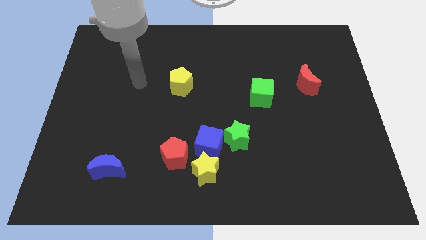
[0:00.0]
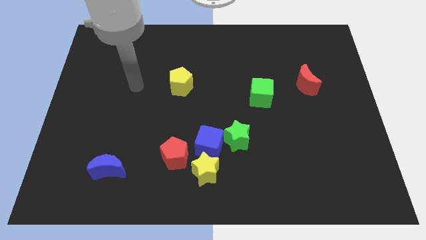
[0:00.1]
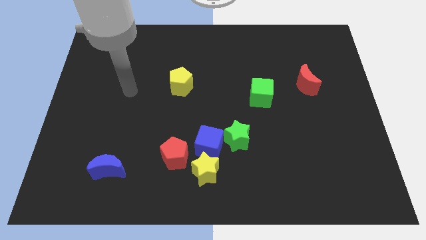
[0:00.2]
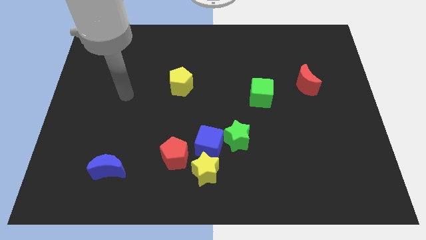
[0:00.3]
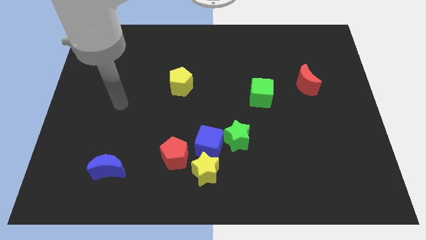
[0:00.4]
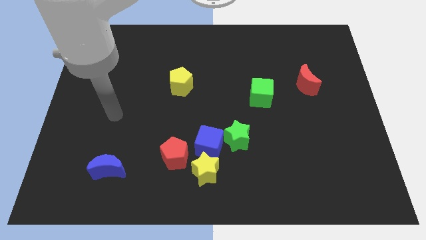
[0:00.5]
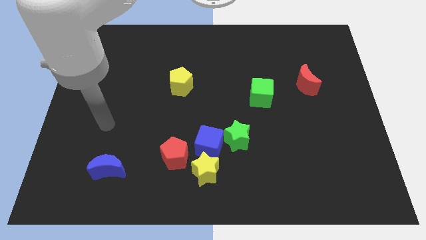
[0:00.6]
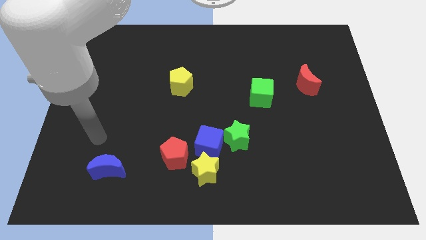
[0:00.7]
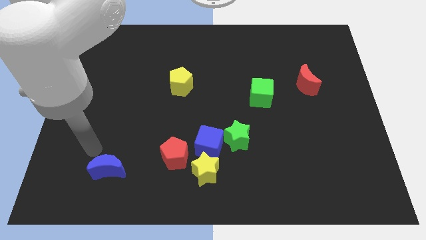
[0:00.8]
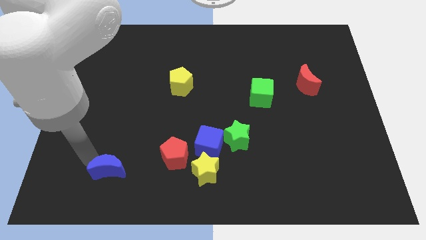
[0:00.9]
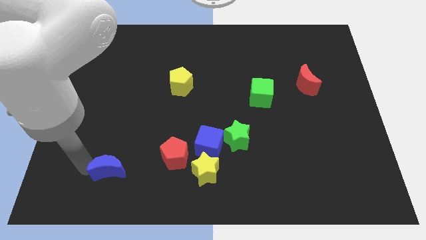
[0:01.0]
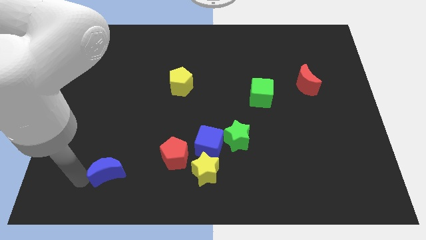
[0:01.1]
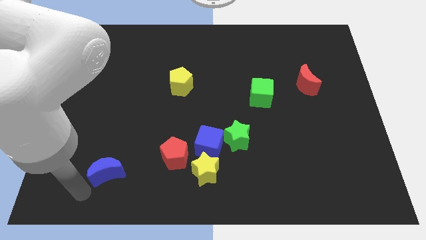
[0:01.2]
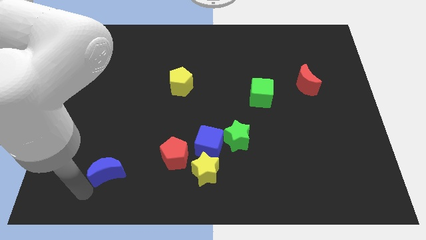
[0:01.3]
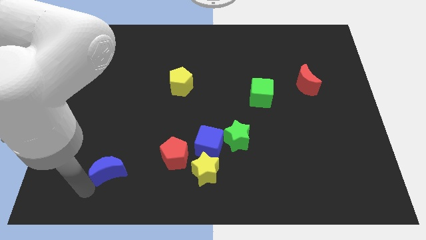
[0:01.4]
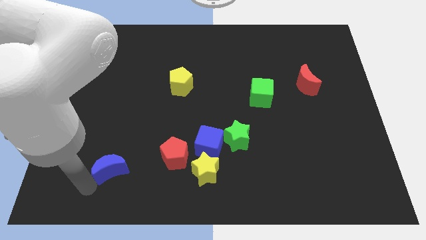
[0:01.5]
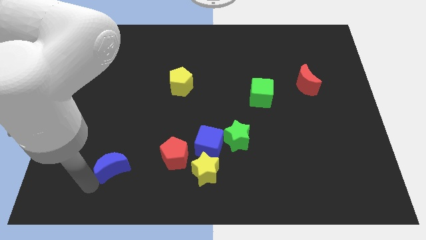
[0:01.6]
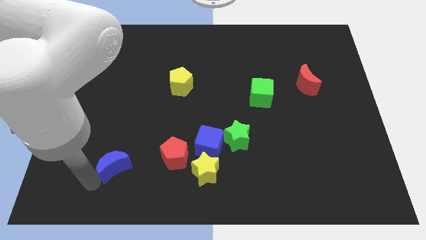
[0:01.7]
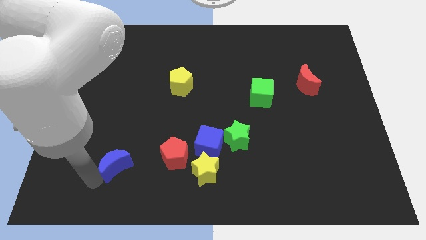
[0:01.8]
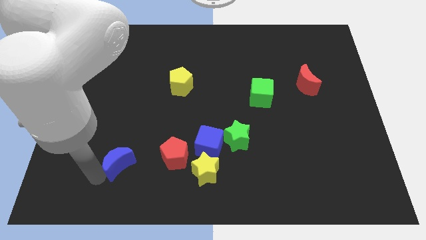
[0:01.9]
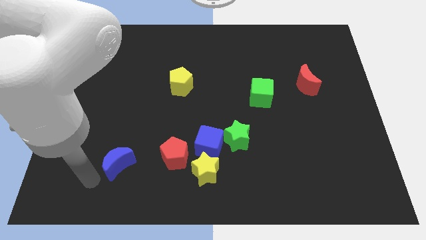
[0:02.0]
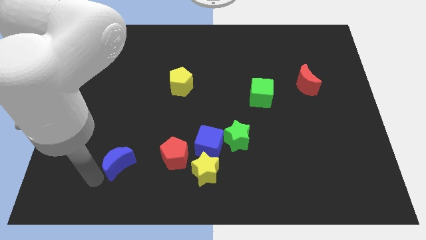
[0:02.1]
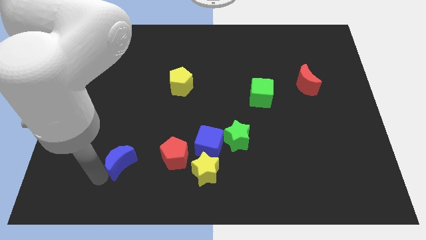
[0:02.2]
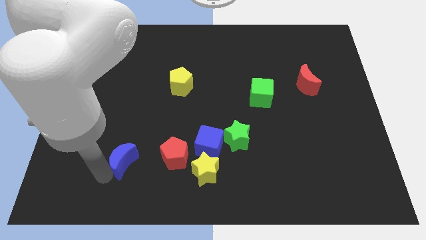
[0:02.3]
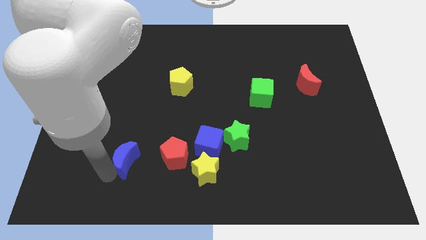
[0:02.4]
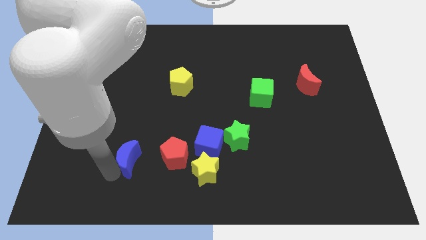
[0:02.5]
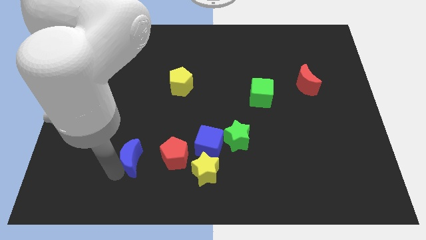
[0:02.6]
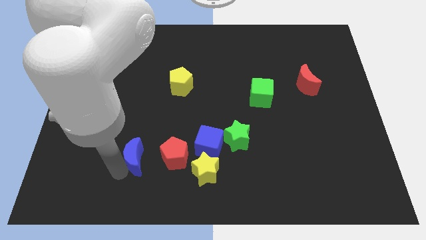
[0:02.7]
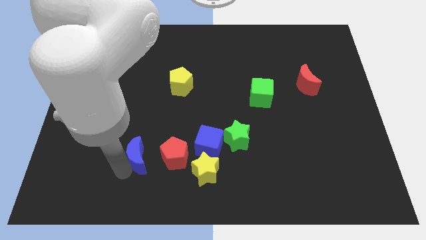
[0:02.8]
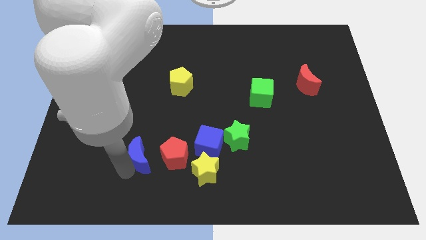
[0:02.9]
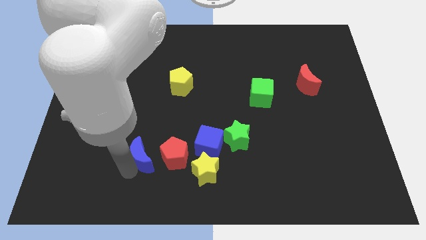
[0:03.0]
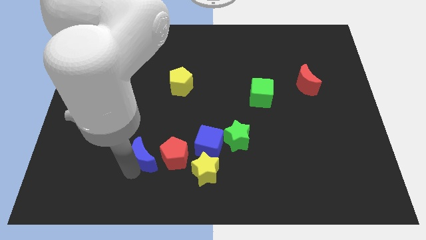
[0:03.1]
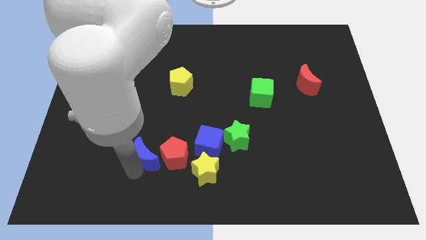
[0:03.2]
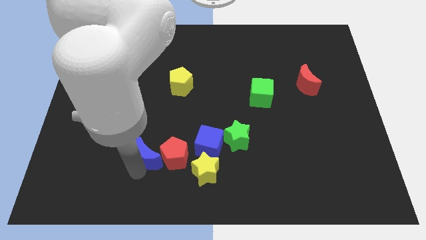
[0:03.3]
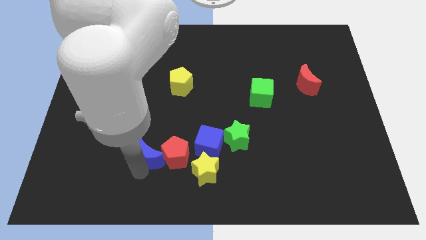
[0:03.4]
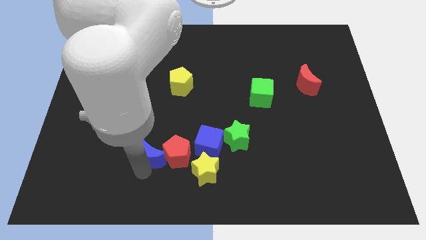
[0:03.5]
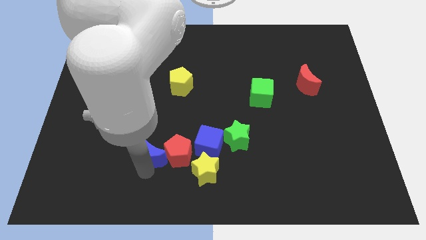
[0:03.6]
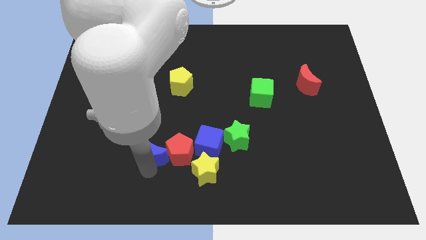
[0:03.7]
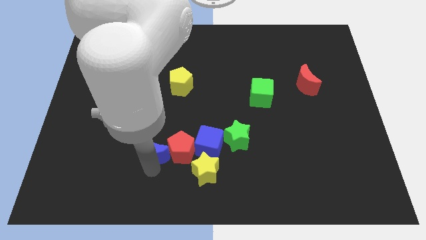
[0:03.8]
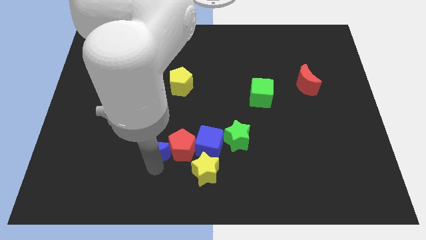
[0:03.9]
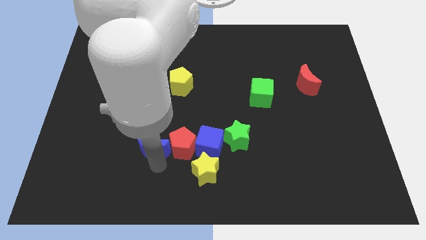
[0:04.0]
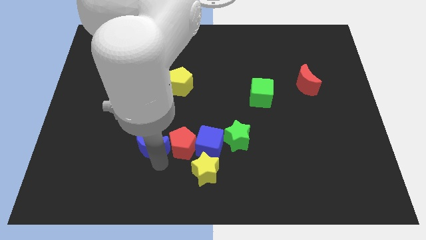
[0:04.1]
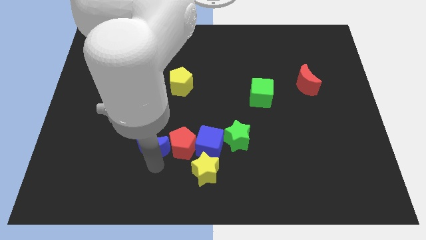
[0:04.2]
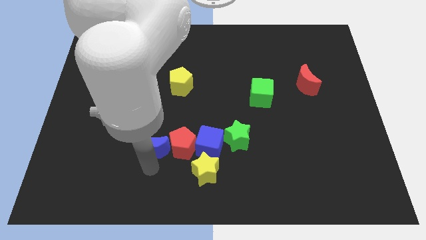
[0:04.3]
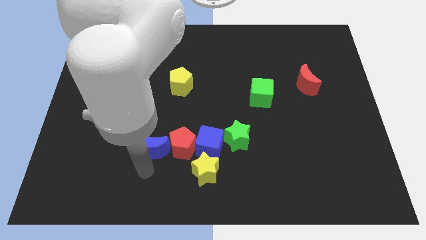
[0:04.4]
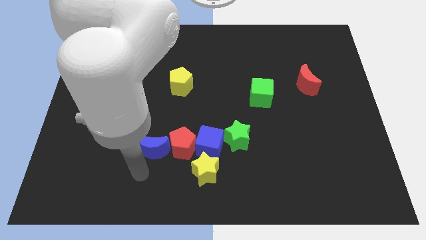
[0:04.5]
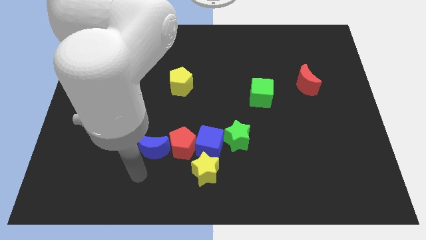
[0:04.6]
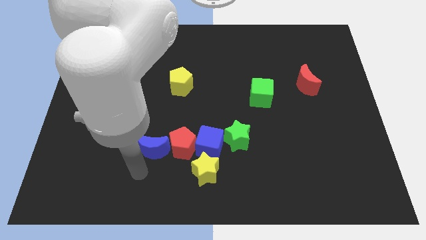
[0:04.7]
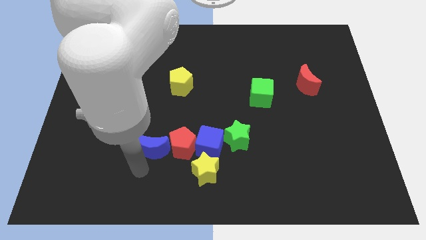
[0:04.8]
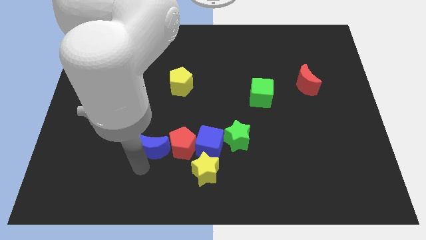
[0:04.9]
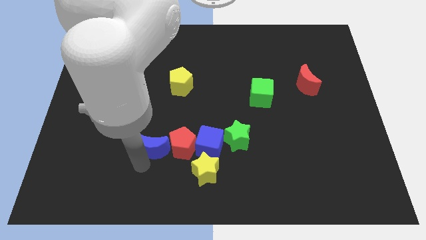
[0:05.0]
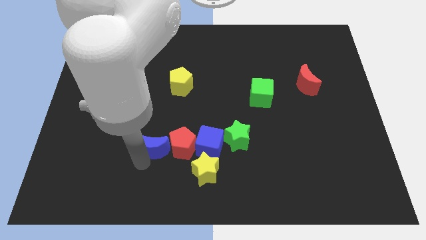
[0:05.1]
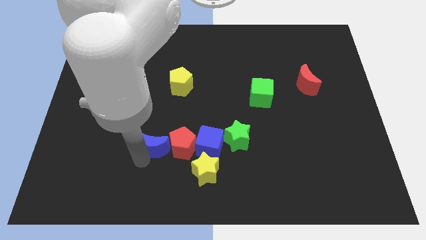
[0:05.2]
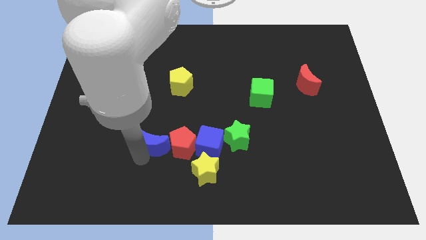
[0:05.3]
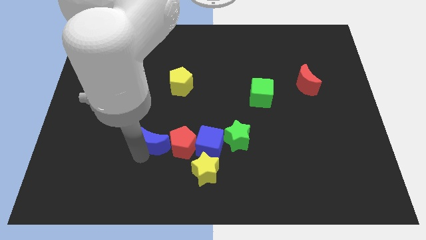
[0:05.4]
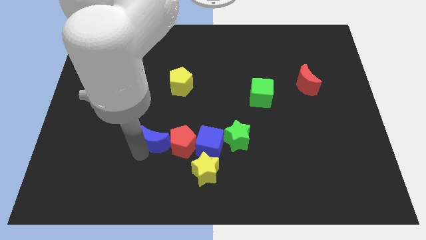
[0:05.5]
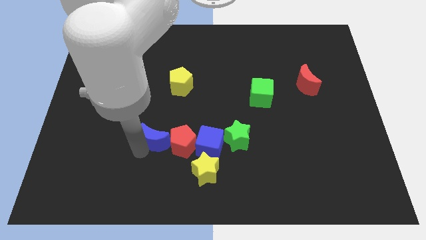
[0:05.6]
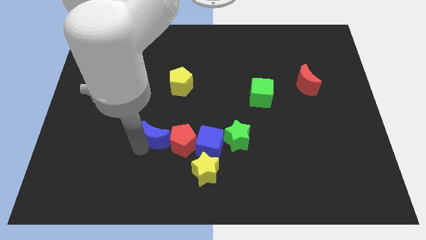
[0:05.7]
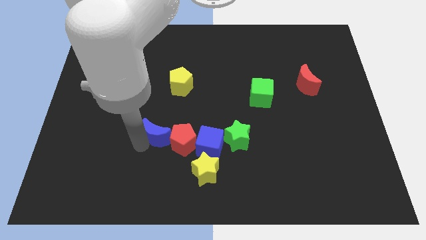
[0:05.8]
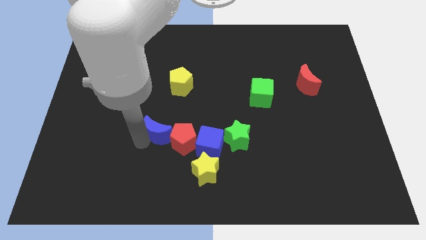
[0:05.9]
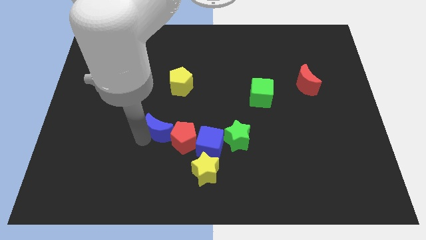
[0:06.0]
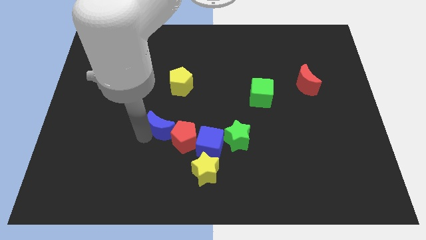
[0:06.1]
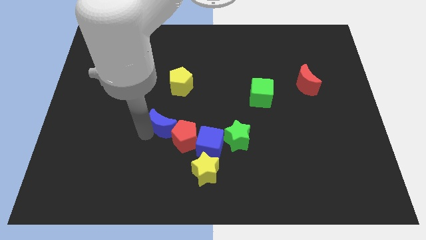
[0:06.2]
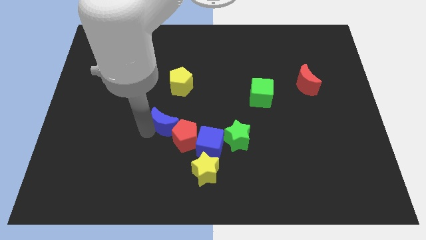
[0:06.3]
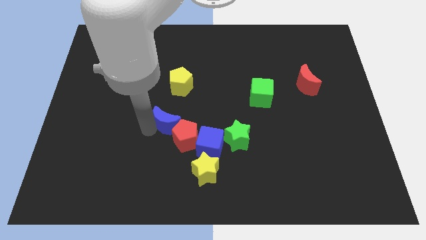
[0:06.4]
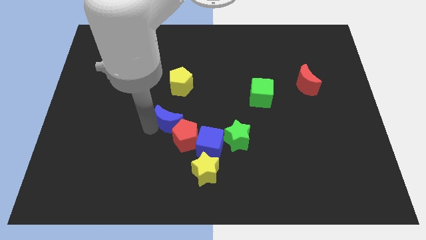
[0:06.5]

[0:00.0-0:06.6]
move the blue moon to the middle
